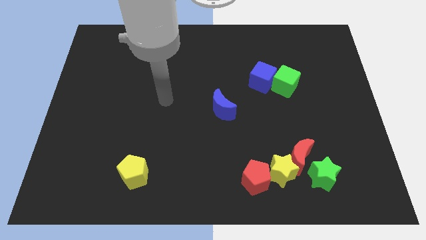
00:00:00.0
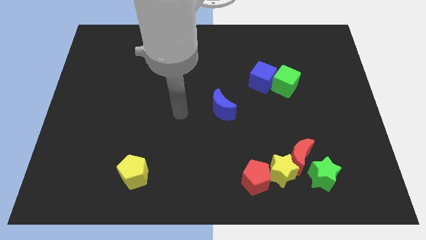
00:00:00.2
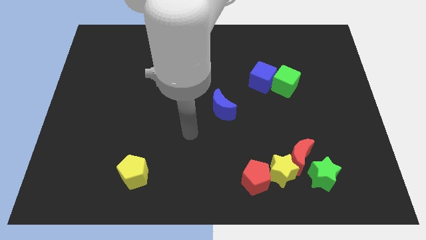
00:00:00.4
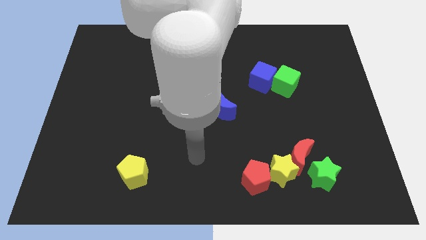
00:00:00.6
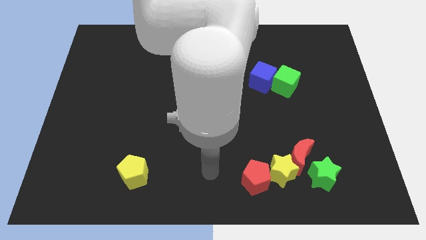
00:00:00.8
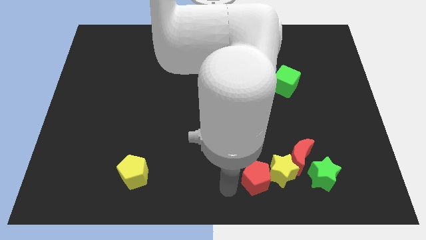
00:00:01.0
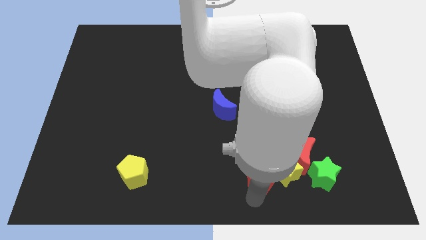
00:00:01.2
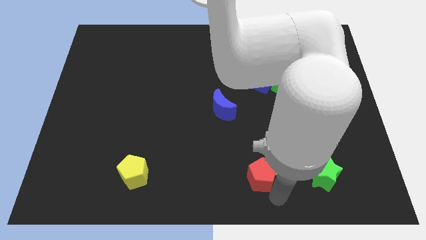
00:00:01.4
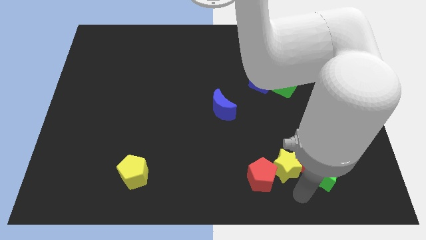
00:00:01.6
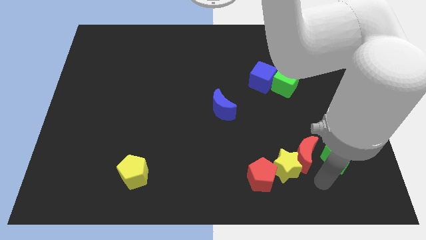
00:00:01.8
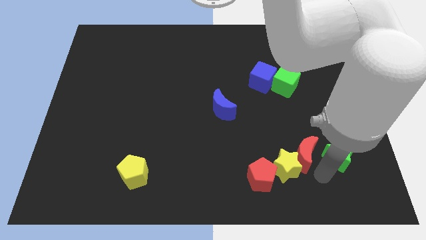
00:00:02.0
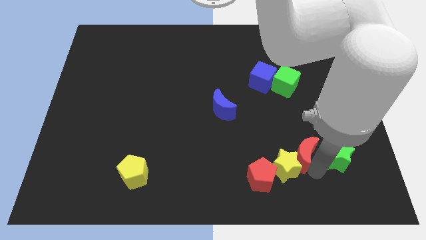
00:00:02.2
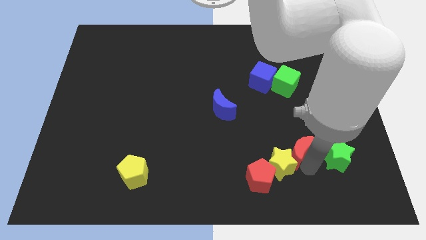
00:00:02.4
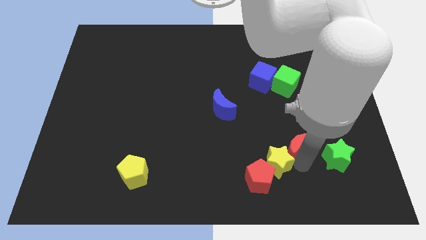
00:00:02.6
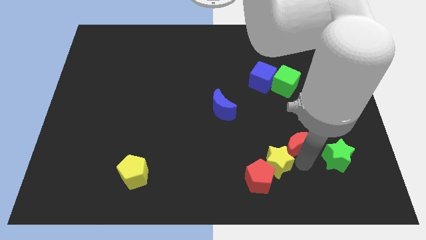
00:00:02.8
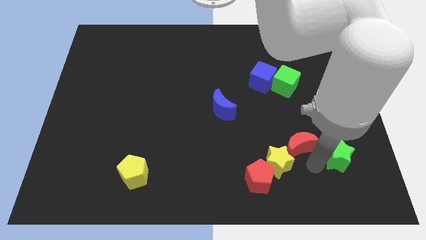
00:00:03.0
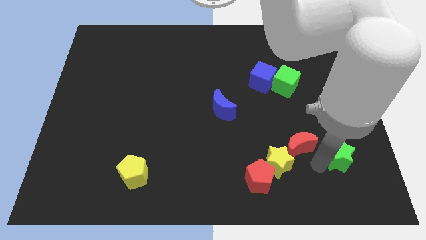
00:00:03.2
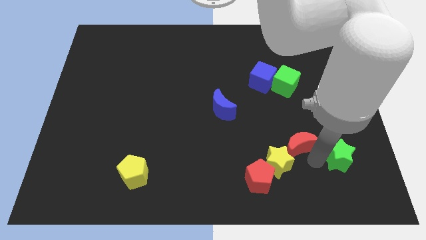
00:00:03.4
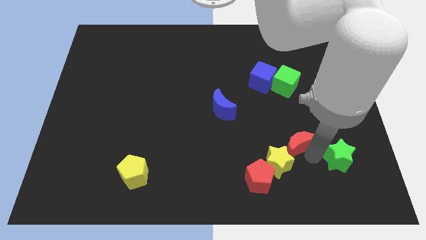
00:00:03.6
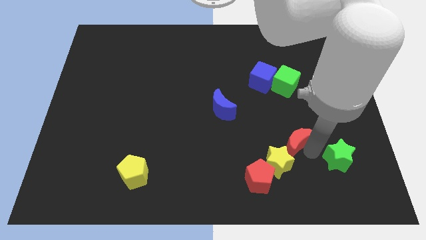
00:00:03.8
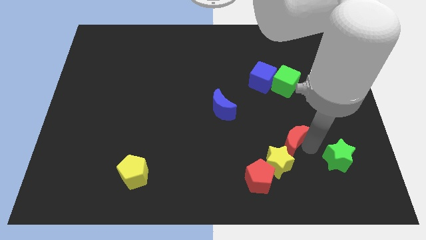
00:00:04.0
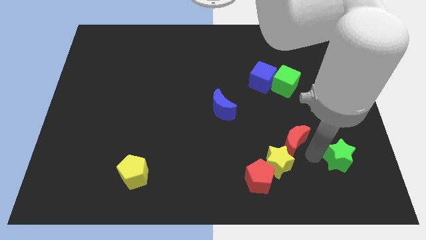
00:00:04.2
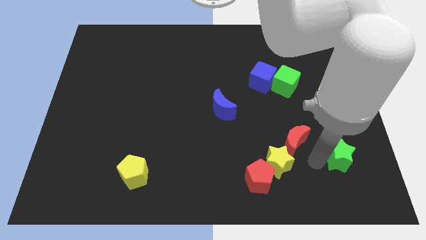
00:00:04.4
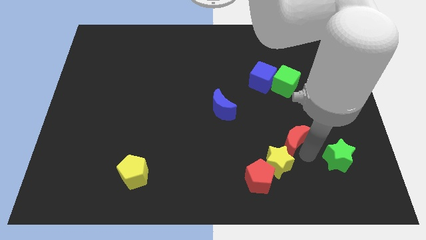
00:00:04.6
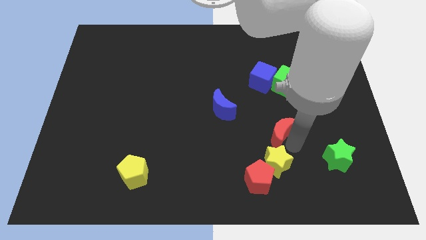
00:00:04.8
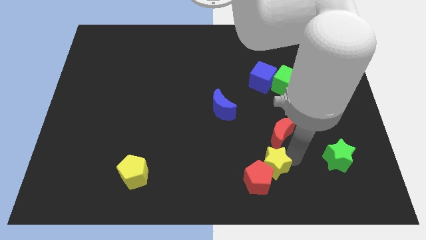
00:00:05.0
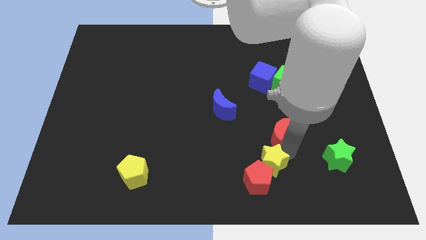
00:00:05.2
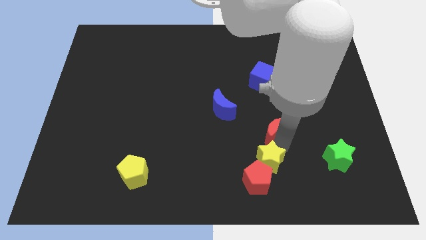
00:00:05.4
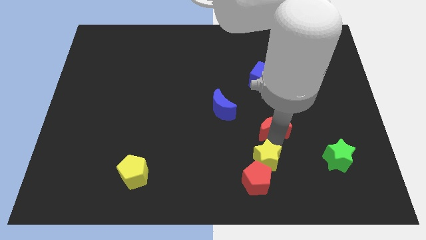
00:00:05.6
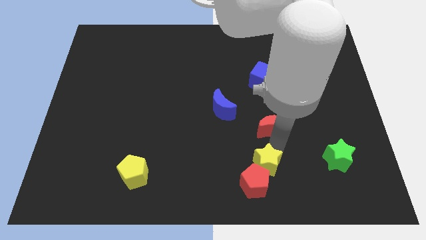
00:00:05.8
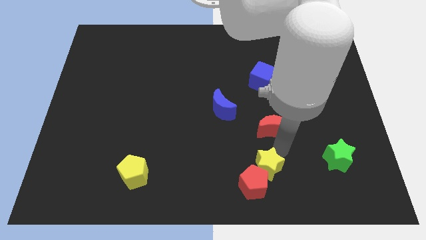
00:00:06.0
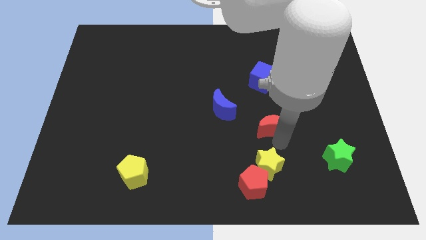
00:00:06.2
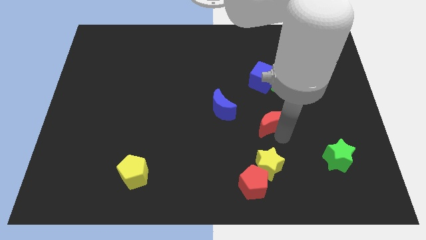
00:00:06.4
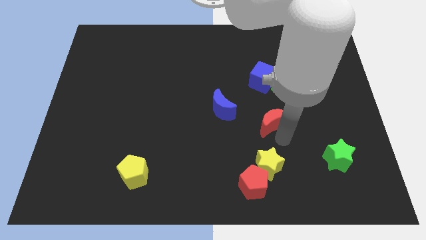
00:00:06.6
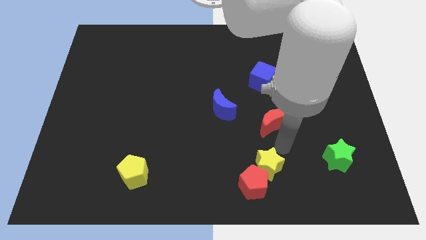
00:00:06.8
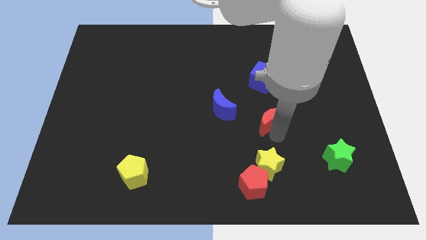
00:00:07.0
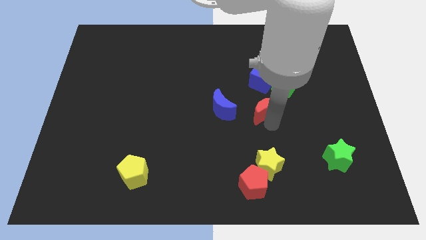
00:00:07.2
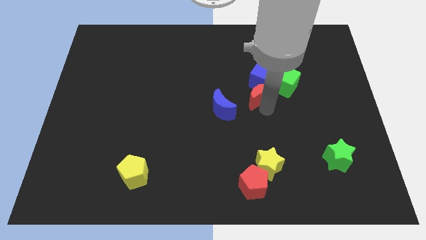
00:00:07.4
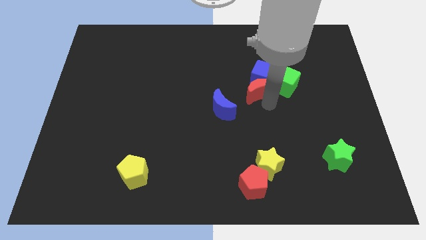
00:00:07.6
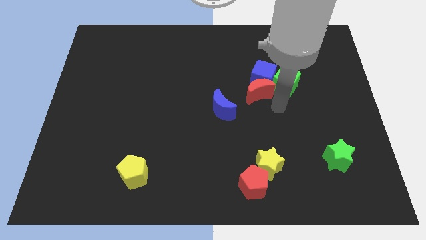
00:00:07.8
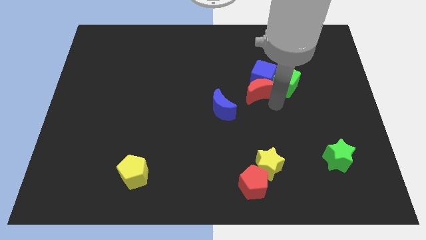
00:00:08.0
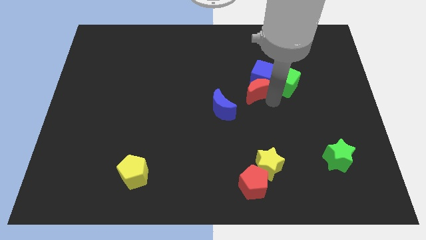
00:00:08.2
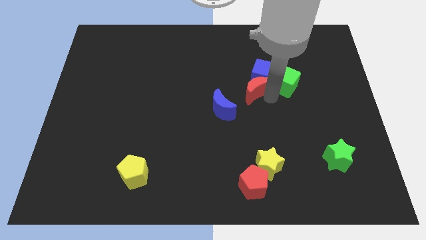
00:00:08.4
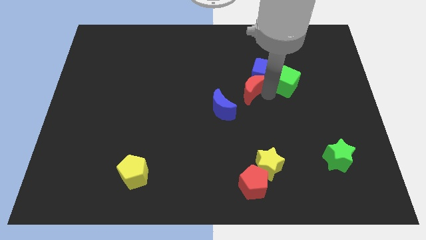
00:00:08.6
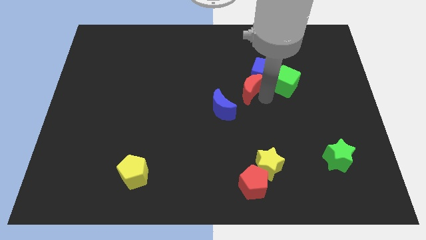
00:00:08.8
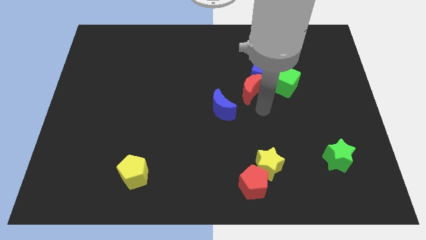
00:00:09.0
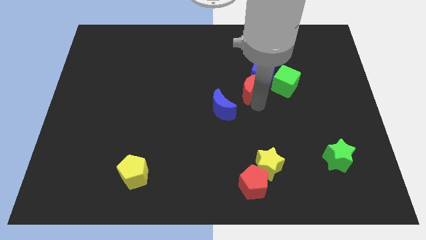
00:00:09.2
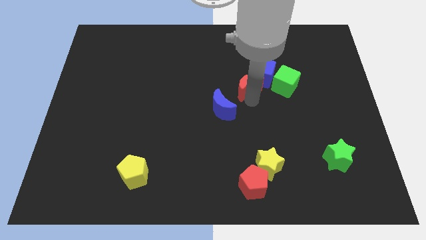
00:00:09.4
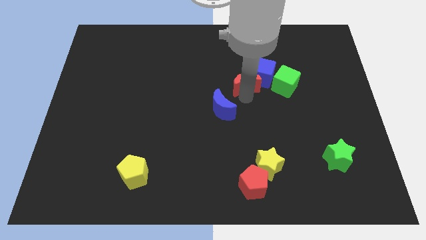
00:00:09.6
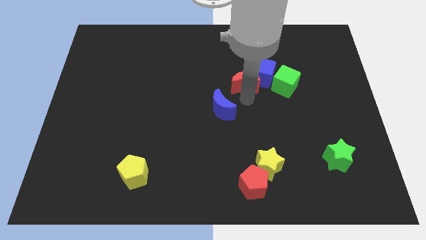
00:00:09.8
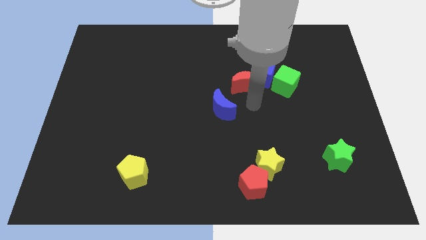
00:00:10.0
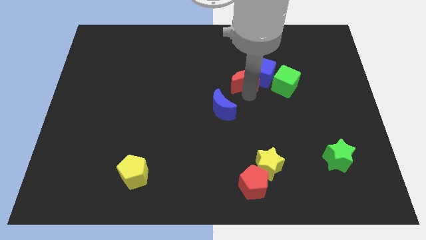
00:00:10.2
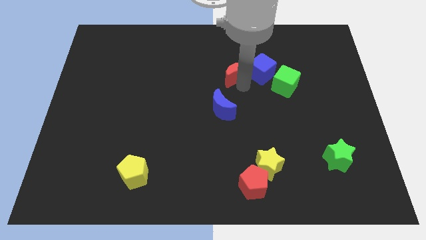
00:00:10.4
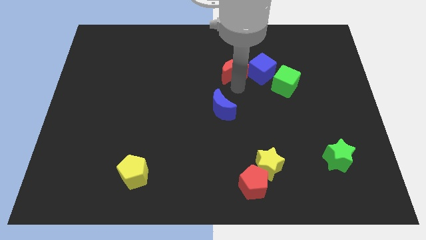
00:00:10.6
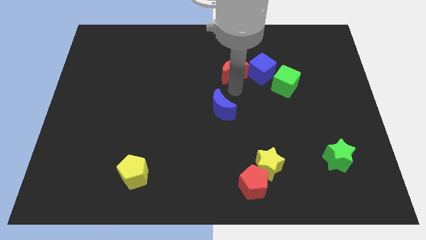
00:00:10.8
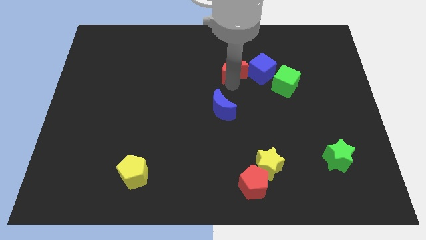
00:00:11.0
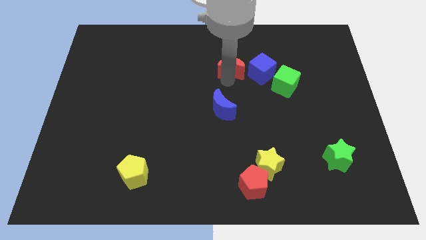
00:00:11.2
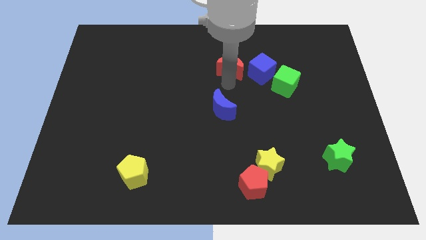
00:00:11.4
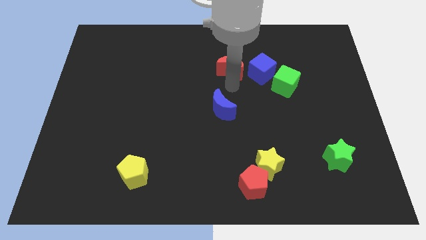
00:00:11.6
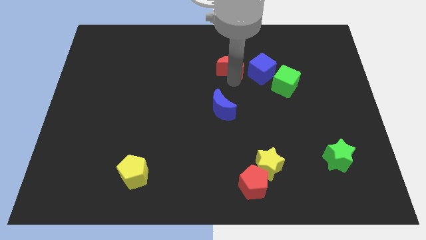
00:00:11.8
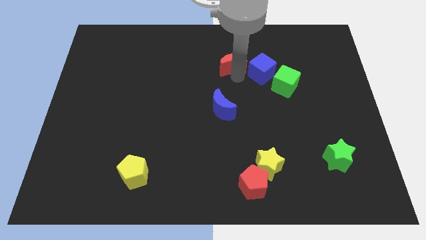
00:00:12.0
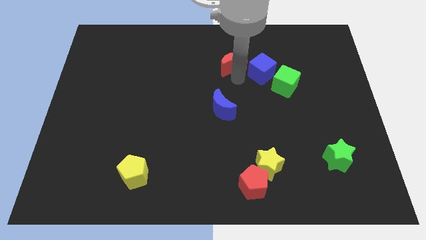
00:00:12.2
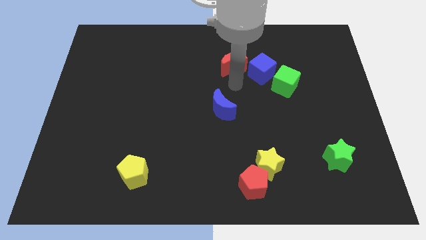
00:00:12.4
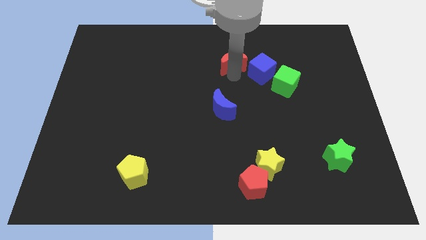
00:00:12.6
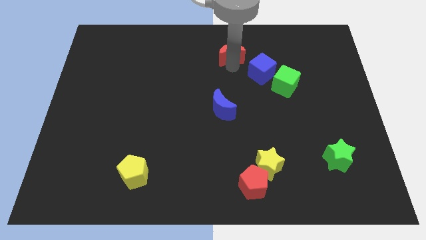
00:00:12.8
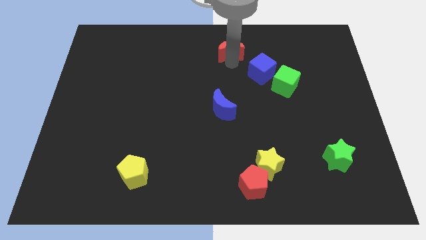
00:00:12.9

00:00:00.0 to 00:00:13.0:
move the red moon to the top side
